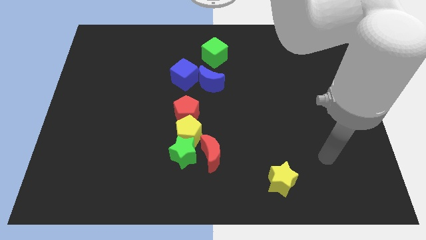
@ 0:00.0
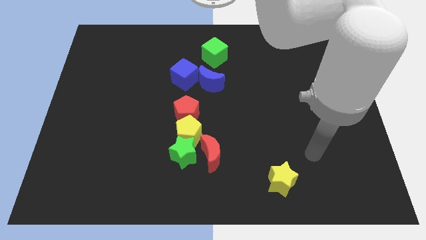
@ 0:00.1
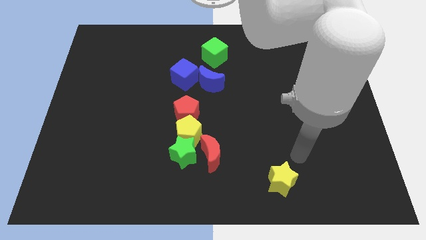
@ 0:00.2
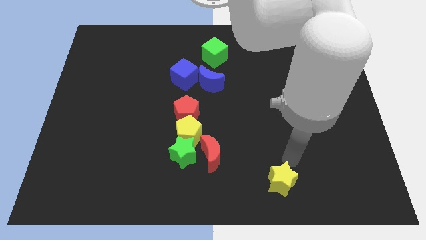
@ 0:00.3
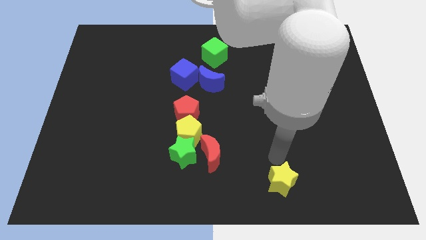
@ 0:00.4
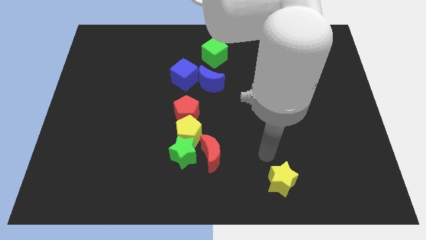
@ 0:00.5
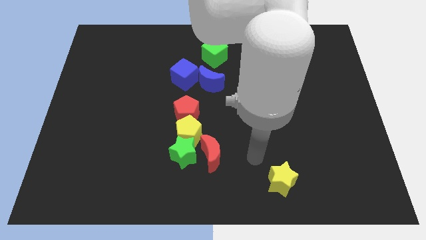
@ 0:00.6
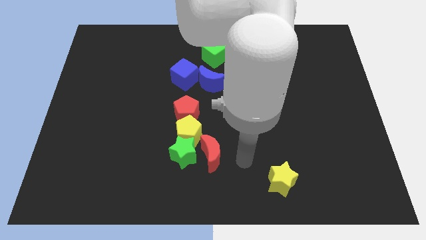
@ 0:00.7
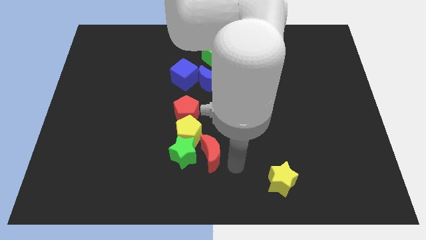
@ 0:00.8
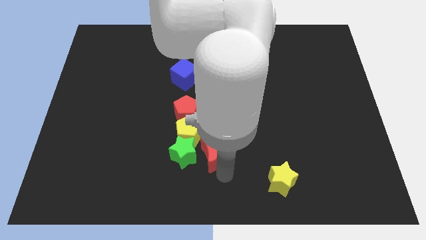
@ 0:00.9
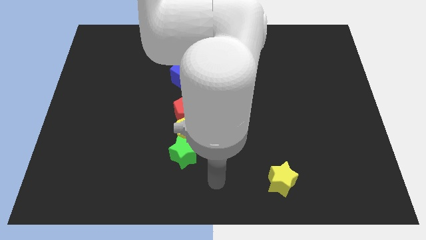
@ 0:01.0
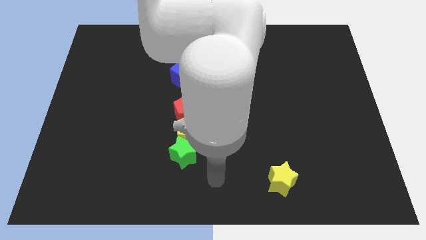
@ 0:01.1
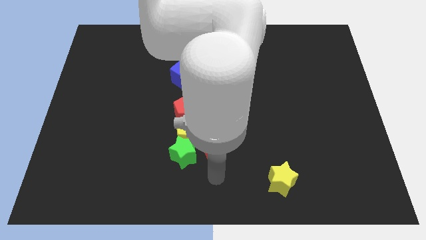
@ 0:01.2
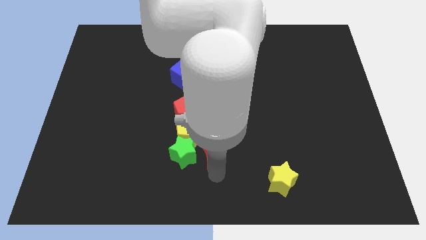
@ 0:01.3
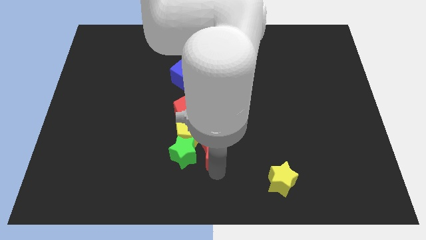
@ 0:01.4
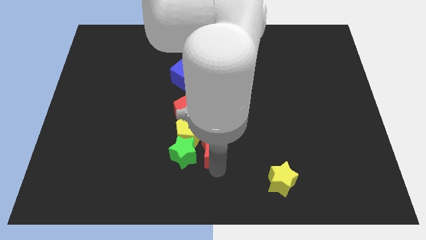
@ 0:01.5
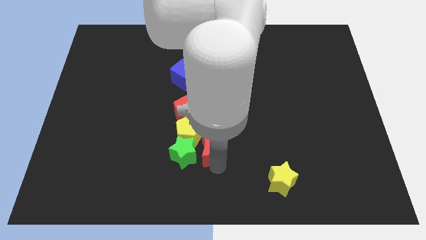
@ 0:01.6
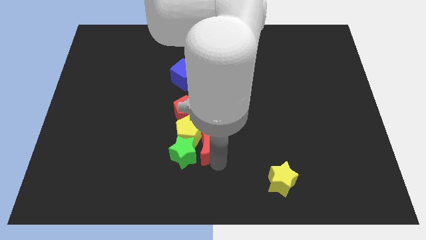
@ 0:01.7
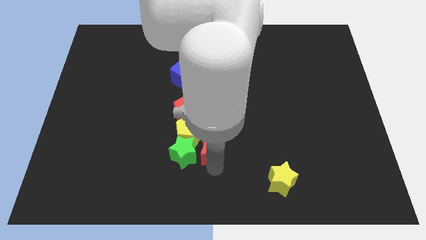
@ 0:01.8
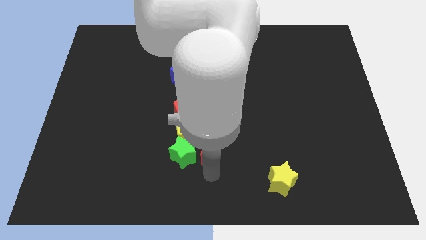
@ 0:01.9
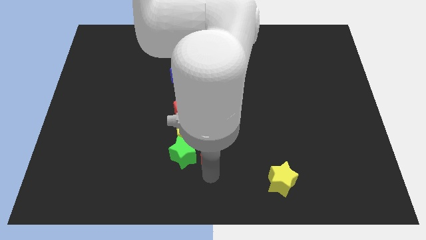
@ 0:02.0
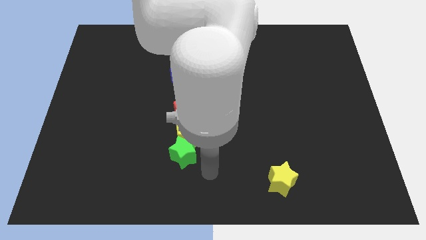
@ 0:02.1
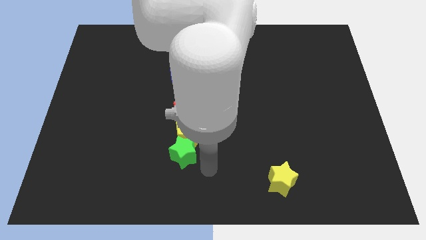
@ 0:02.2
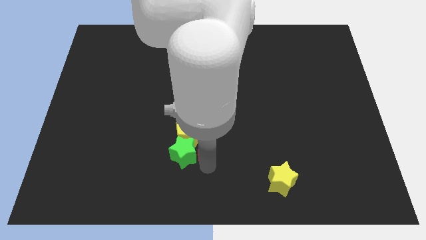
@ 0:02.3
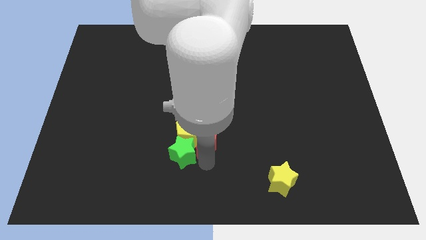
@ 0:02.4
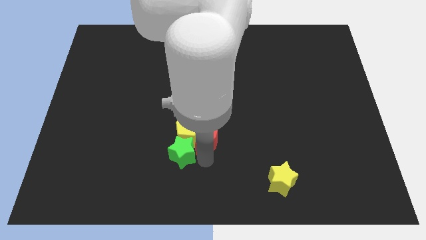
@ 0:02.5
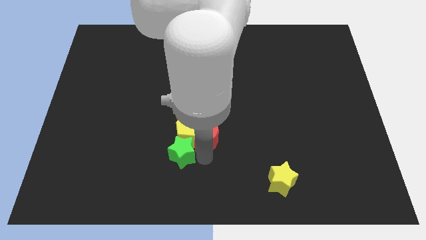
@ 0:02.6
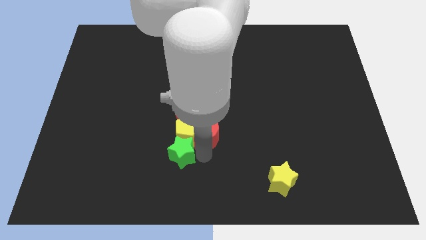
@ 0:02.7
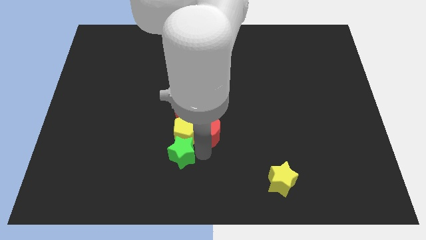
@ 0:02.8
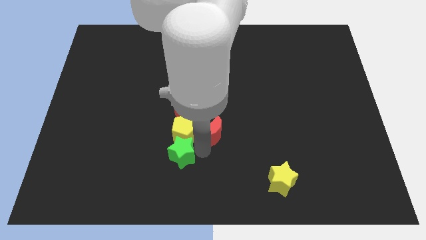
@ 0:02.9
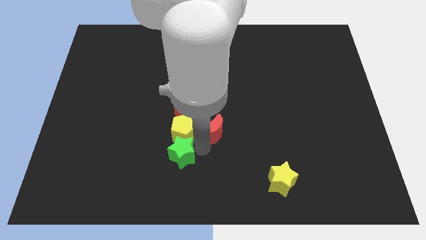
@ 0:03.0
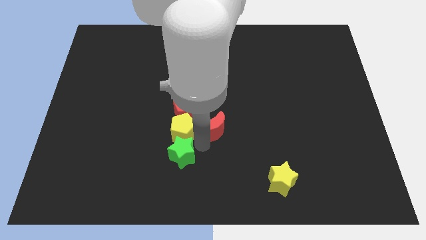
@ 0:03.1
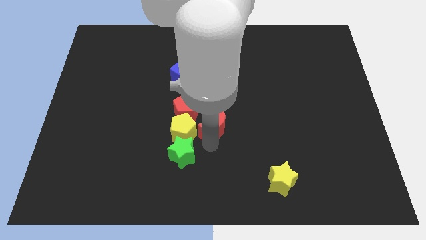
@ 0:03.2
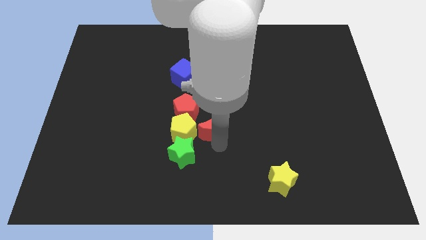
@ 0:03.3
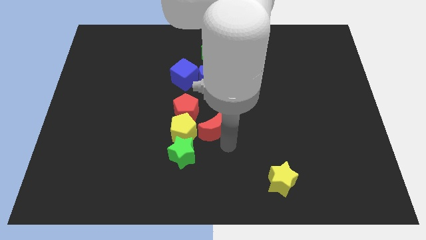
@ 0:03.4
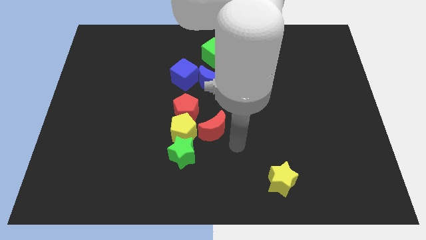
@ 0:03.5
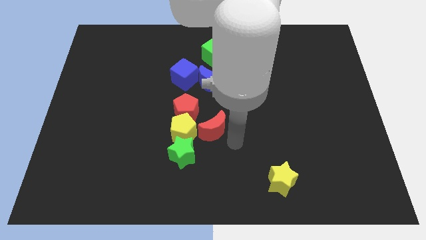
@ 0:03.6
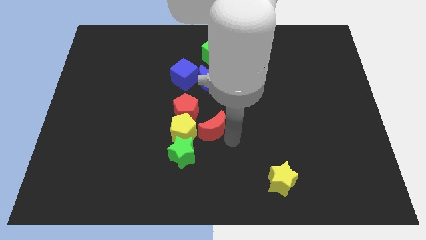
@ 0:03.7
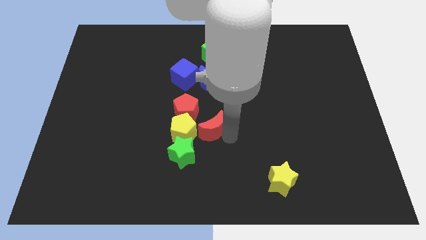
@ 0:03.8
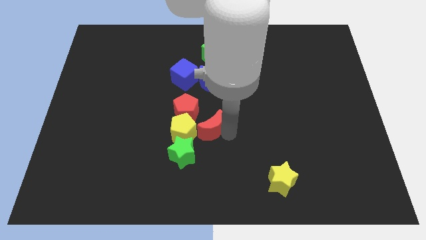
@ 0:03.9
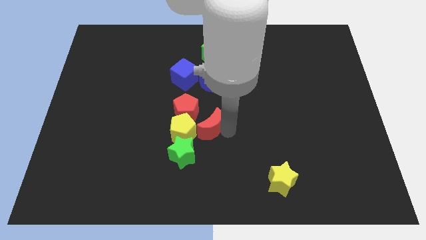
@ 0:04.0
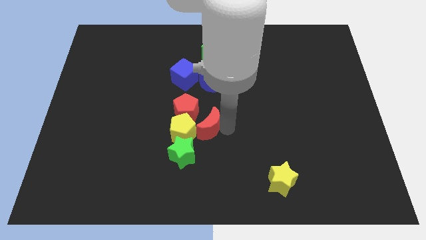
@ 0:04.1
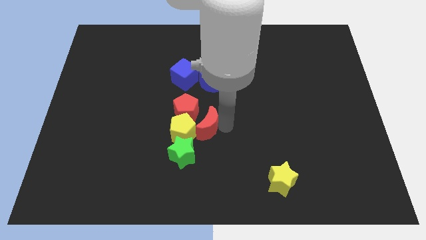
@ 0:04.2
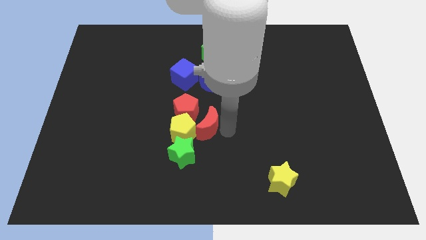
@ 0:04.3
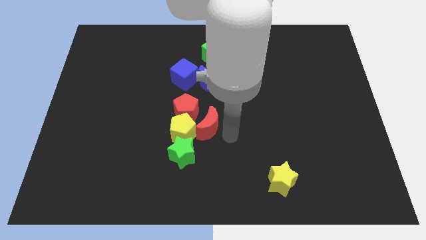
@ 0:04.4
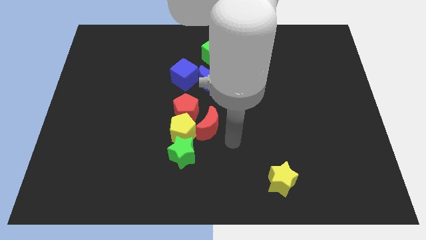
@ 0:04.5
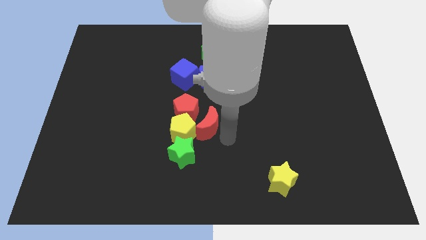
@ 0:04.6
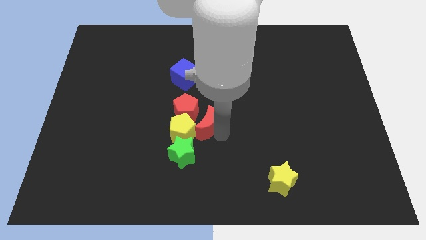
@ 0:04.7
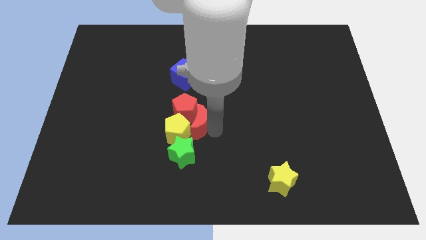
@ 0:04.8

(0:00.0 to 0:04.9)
put the red moon to the red pentagon

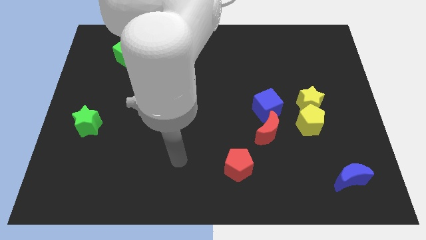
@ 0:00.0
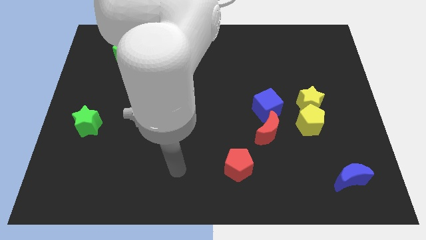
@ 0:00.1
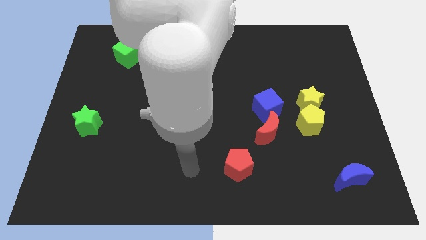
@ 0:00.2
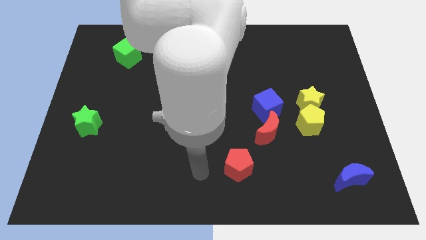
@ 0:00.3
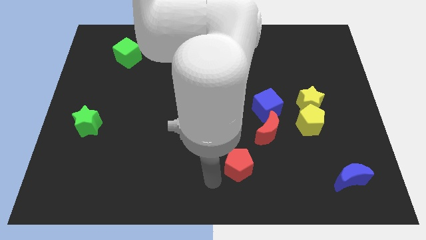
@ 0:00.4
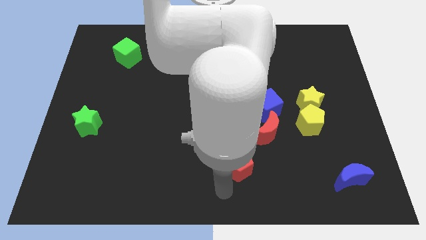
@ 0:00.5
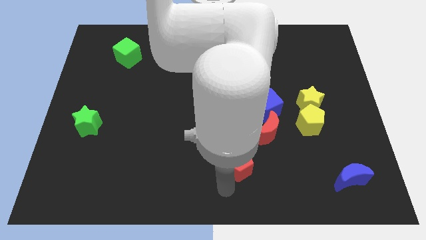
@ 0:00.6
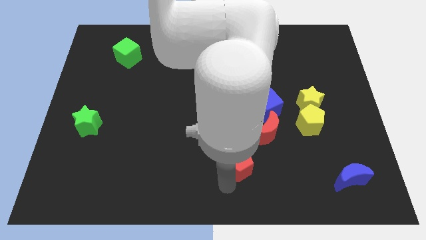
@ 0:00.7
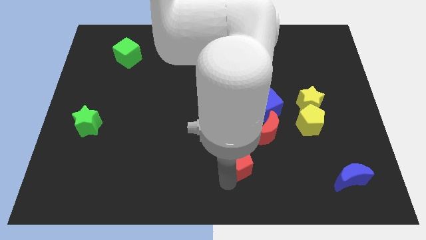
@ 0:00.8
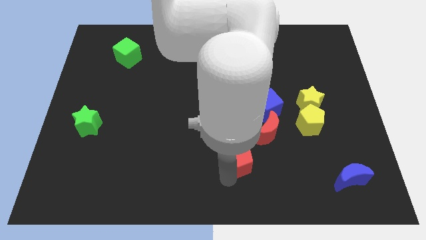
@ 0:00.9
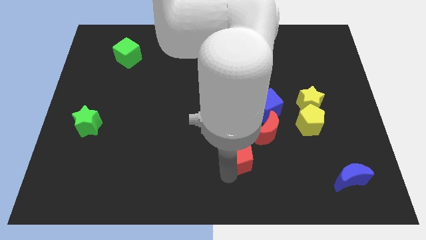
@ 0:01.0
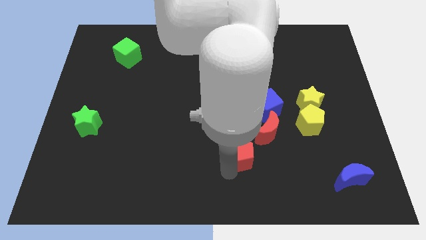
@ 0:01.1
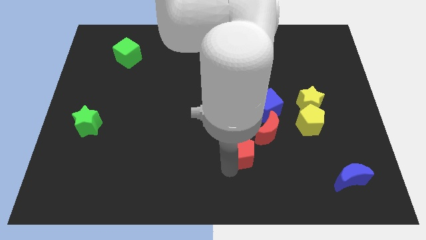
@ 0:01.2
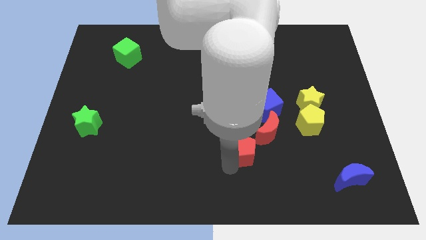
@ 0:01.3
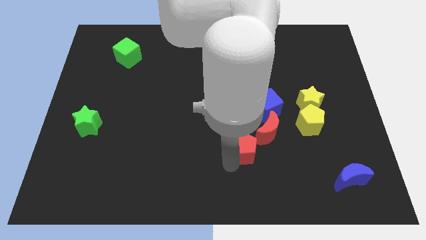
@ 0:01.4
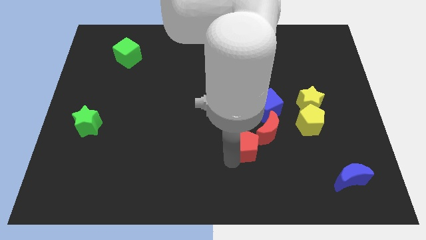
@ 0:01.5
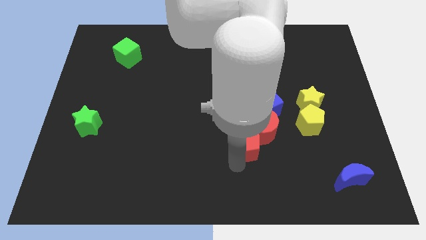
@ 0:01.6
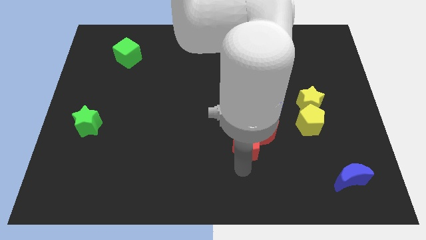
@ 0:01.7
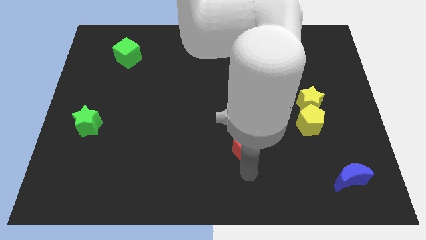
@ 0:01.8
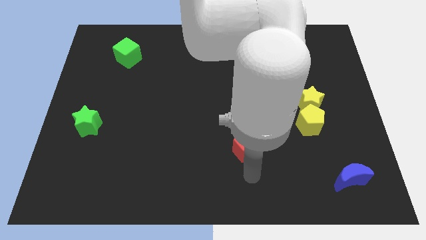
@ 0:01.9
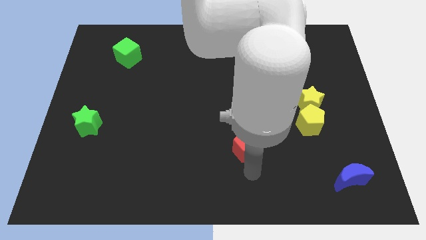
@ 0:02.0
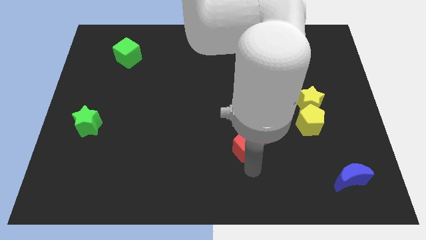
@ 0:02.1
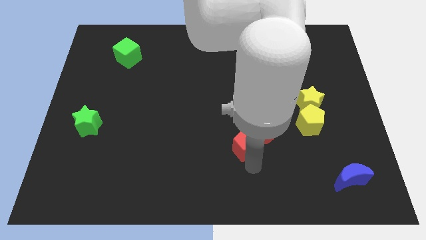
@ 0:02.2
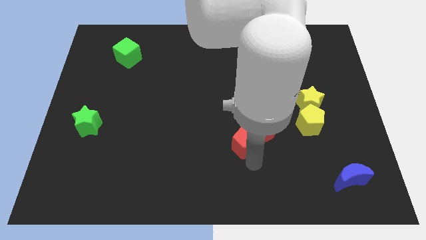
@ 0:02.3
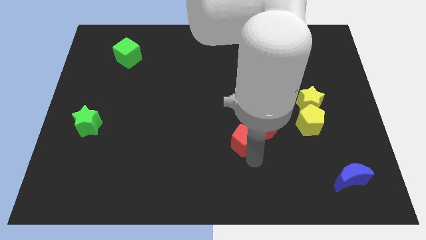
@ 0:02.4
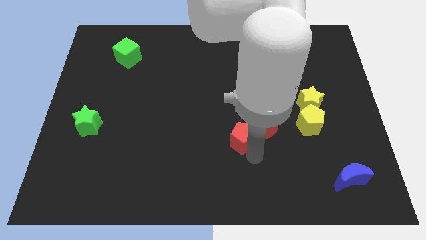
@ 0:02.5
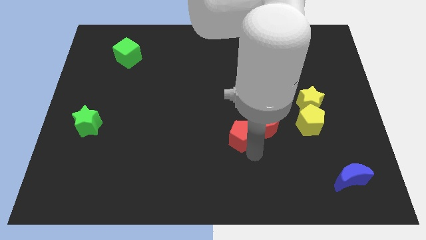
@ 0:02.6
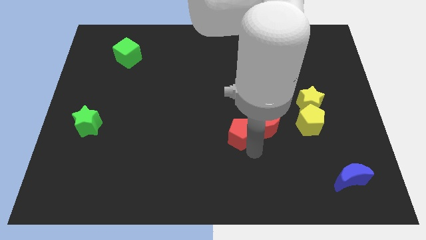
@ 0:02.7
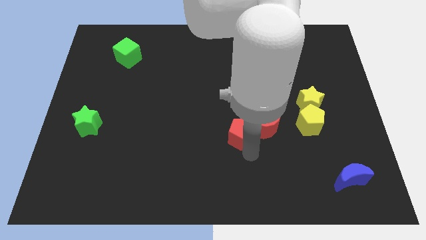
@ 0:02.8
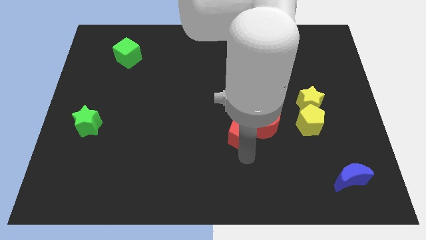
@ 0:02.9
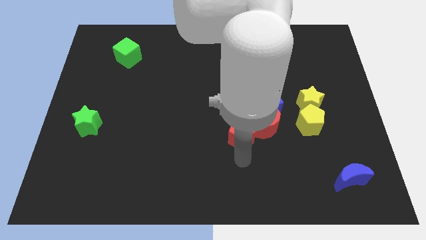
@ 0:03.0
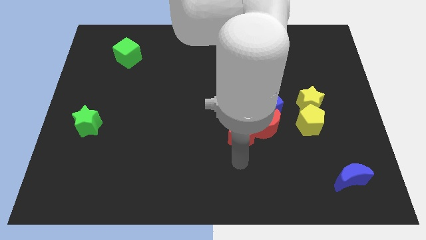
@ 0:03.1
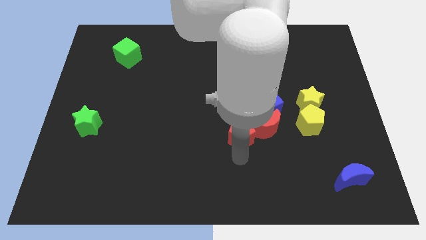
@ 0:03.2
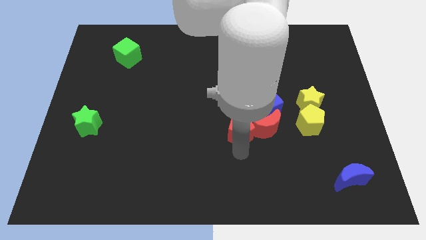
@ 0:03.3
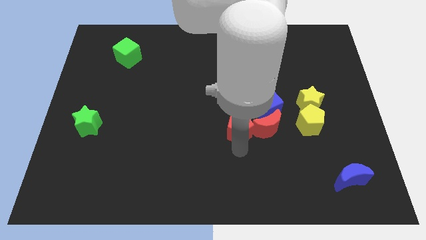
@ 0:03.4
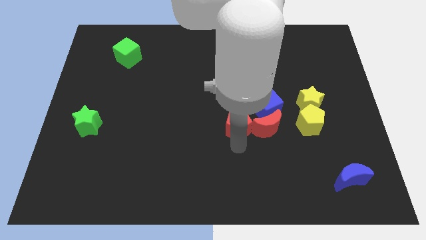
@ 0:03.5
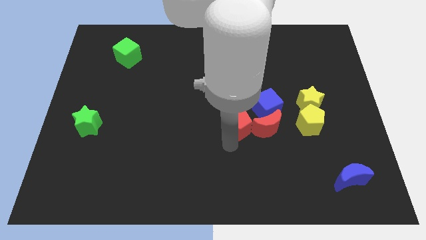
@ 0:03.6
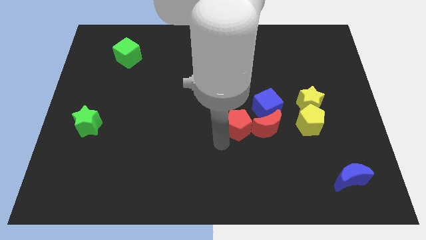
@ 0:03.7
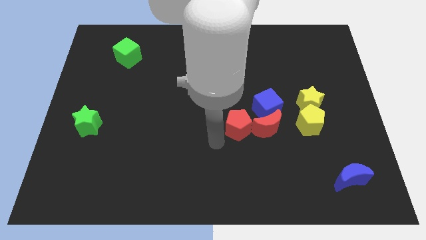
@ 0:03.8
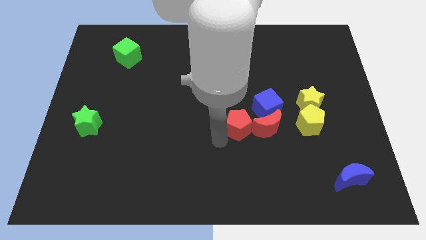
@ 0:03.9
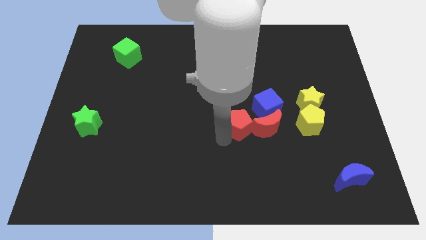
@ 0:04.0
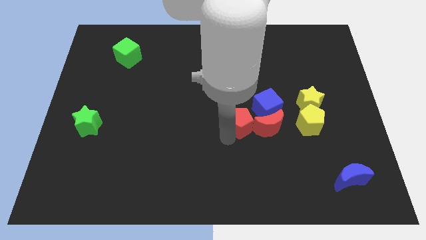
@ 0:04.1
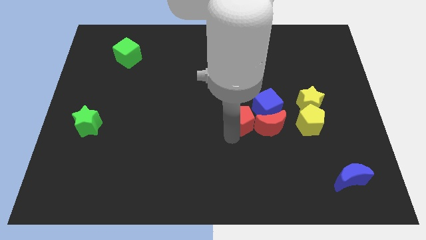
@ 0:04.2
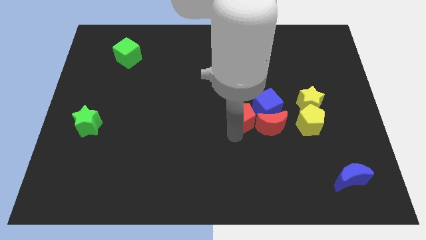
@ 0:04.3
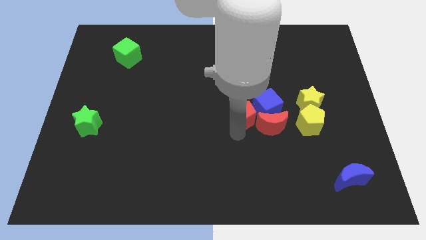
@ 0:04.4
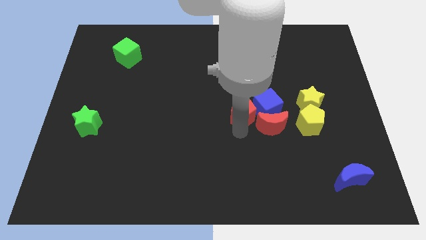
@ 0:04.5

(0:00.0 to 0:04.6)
slide the red pentagon to the blue cube
